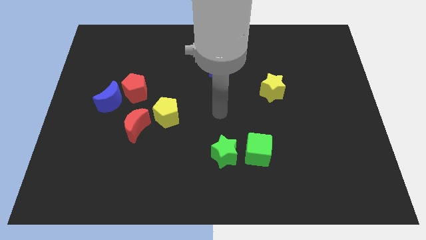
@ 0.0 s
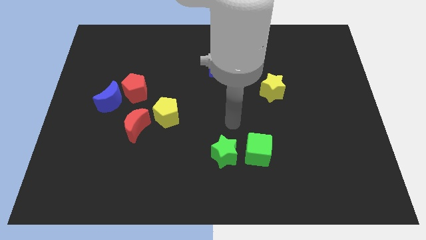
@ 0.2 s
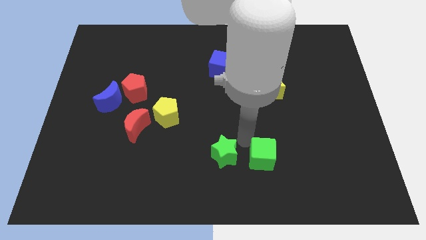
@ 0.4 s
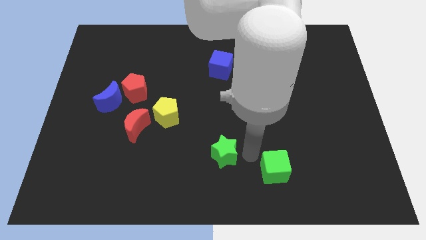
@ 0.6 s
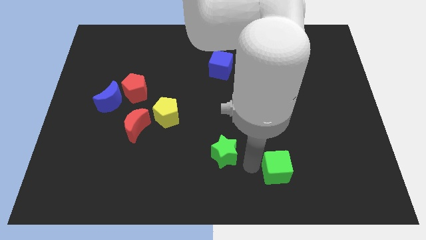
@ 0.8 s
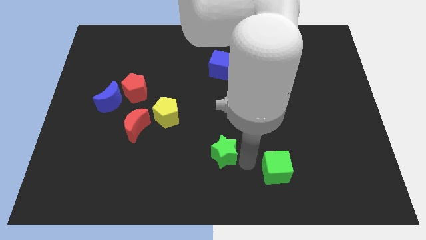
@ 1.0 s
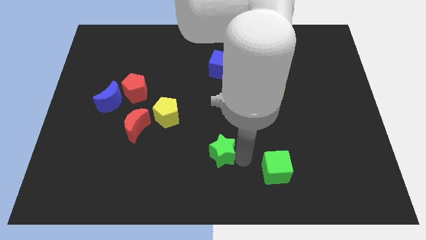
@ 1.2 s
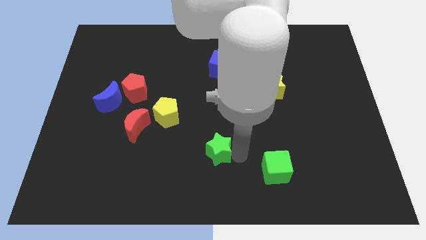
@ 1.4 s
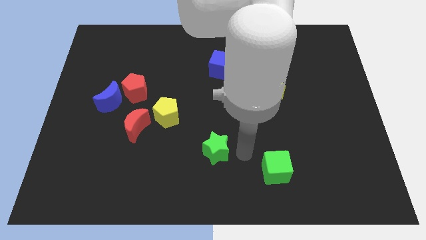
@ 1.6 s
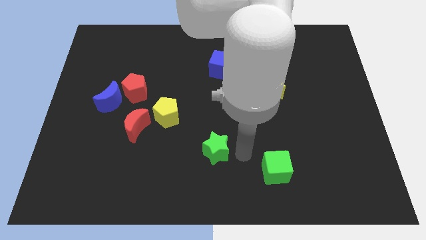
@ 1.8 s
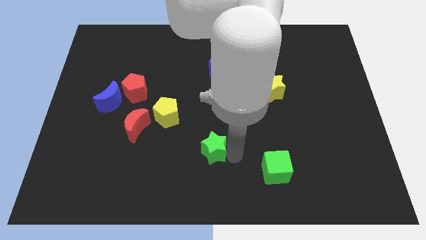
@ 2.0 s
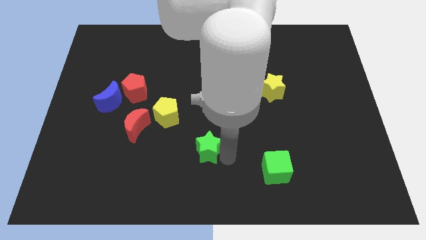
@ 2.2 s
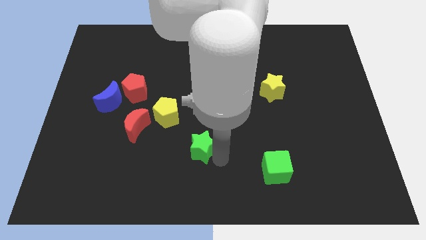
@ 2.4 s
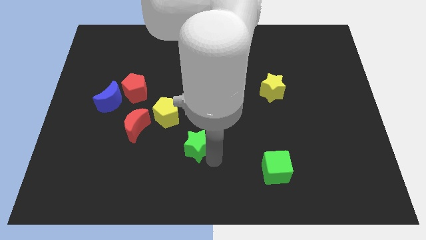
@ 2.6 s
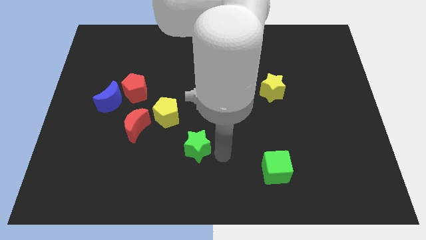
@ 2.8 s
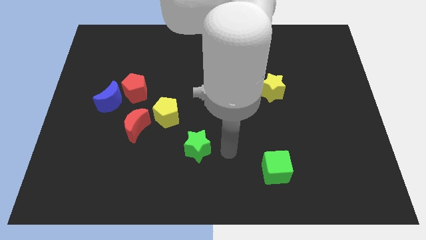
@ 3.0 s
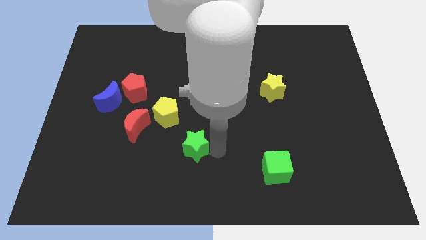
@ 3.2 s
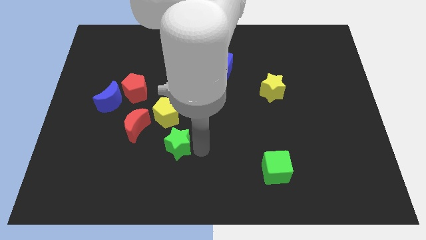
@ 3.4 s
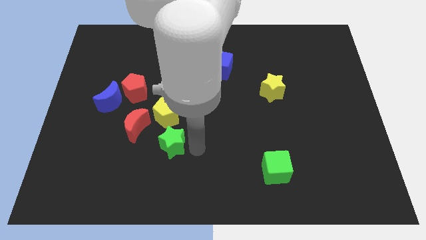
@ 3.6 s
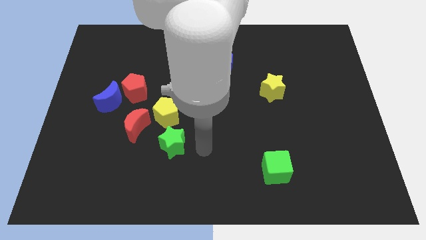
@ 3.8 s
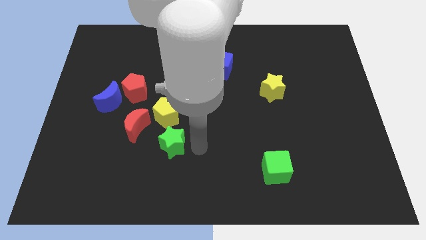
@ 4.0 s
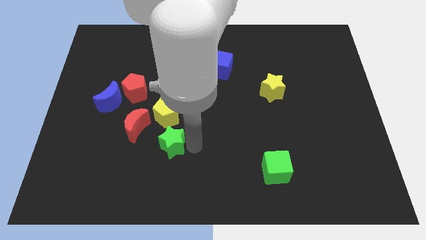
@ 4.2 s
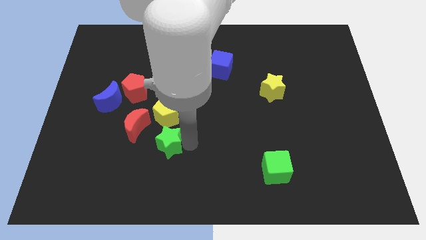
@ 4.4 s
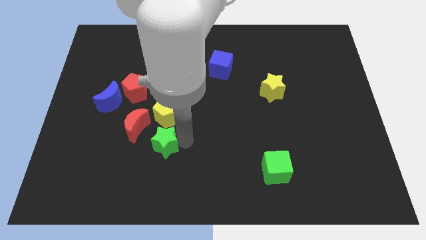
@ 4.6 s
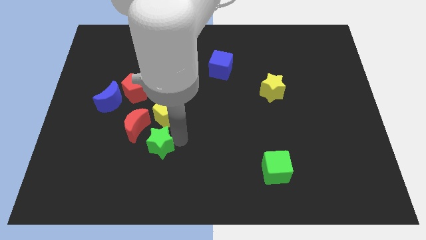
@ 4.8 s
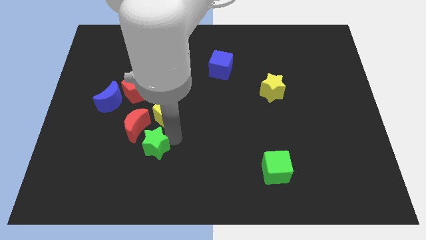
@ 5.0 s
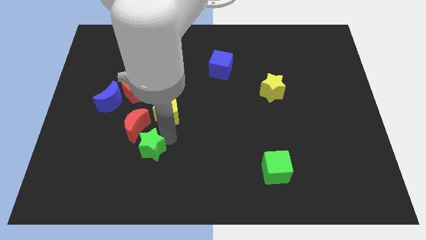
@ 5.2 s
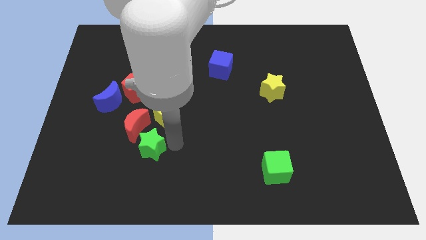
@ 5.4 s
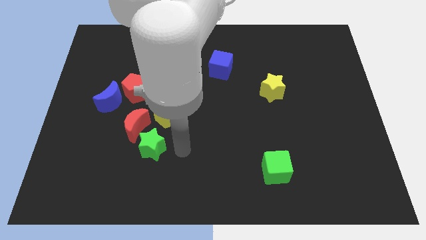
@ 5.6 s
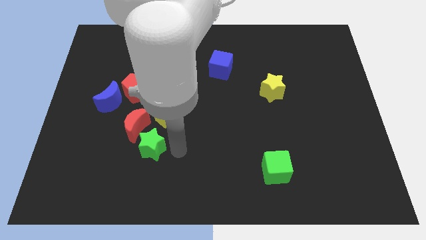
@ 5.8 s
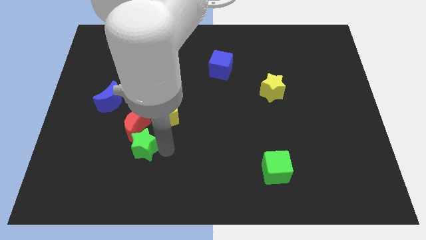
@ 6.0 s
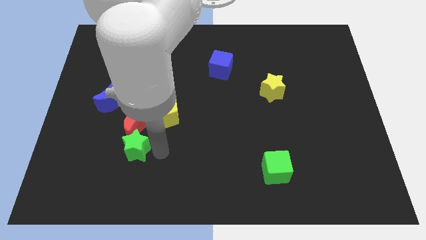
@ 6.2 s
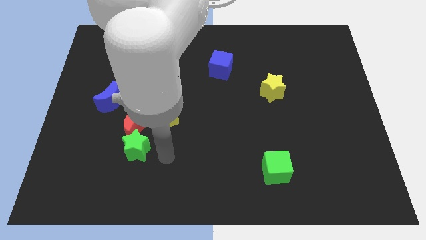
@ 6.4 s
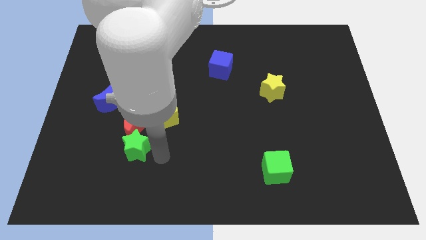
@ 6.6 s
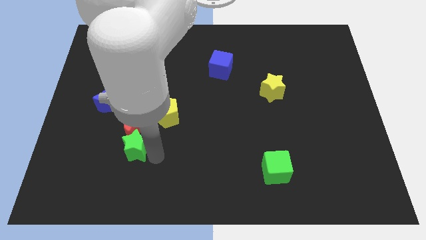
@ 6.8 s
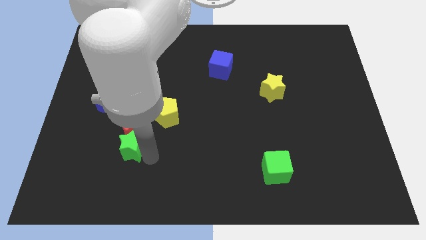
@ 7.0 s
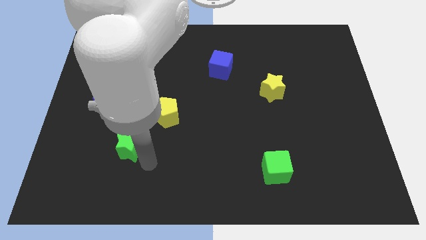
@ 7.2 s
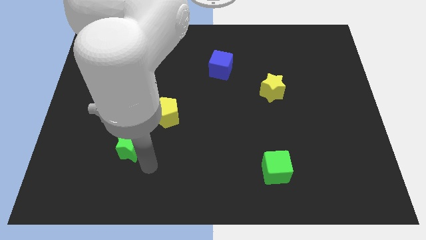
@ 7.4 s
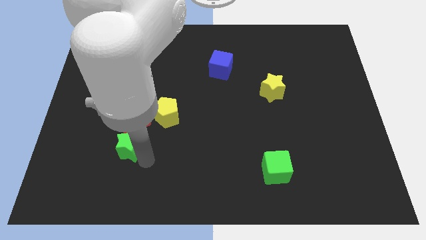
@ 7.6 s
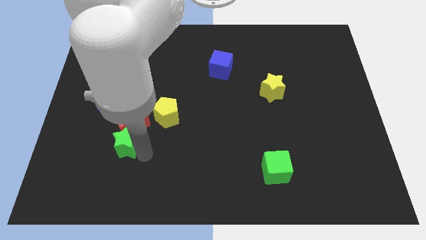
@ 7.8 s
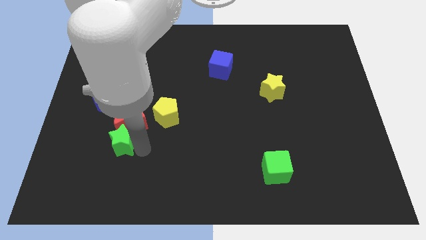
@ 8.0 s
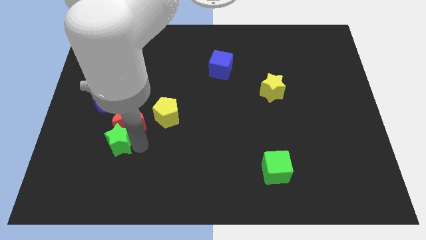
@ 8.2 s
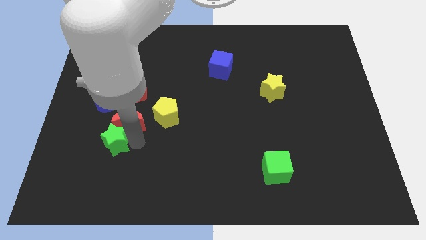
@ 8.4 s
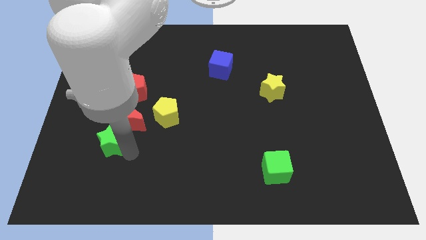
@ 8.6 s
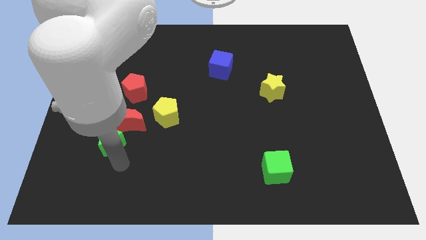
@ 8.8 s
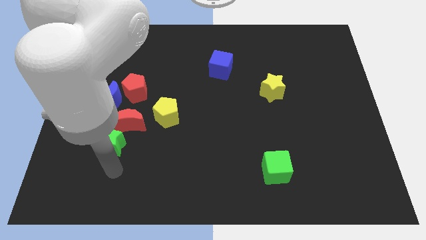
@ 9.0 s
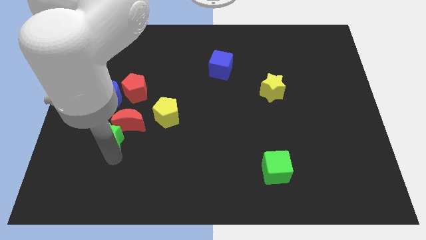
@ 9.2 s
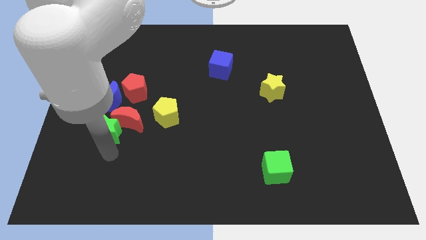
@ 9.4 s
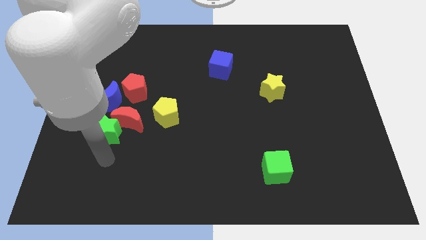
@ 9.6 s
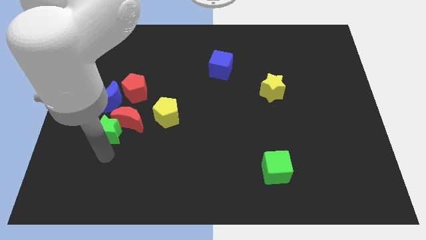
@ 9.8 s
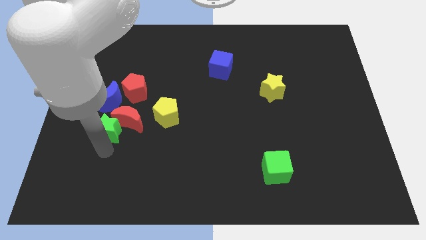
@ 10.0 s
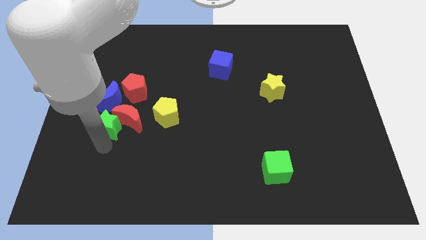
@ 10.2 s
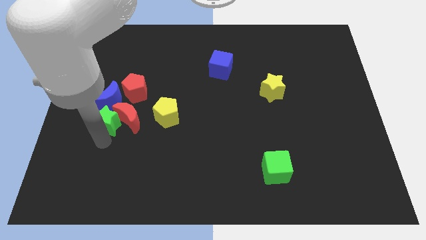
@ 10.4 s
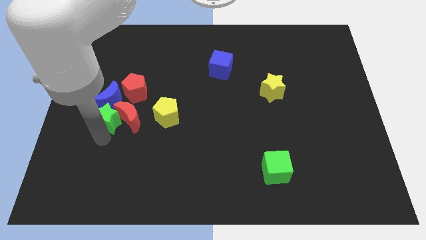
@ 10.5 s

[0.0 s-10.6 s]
push the green star close to the blue moon

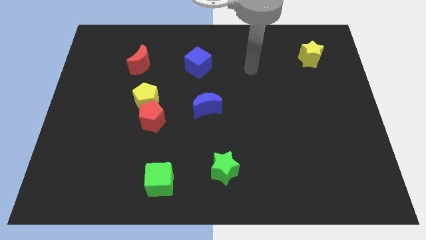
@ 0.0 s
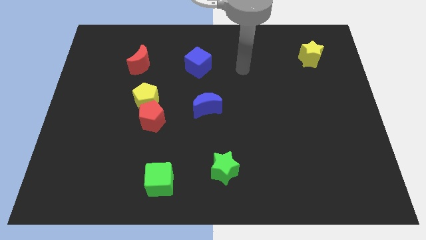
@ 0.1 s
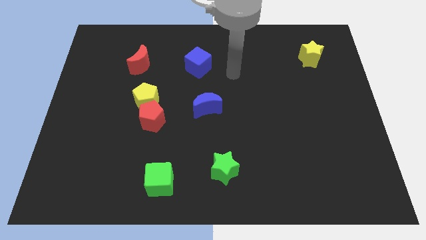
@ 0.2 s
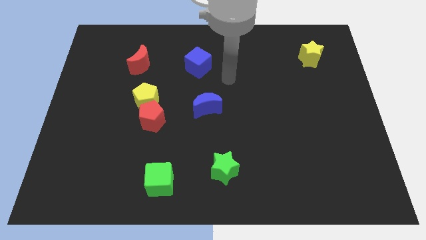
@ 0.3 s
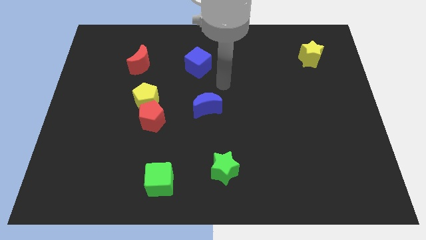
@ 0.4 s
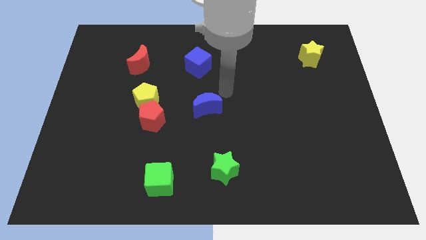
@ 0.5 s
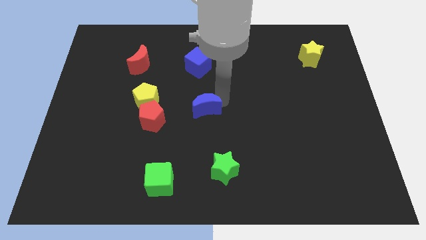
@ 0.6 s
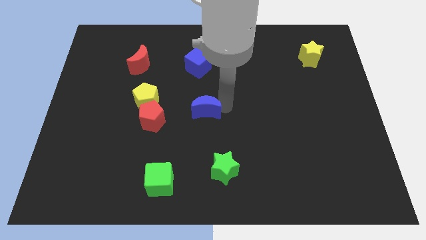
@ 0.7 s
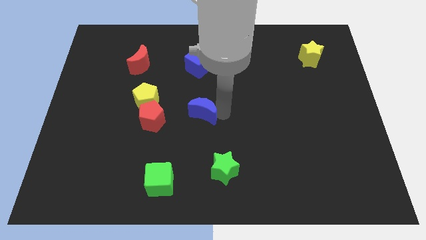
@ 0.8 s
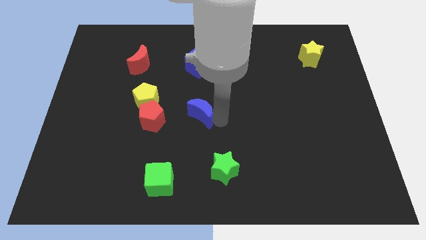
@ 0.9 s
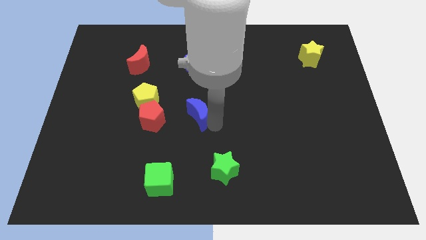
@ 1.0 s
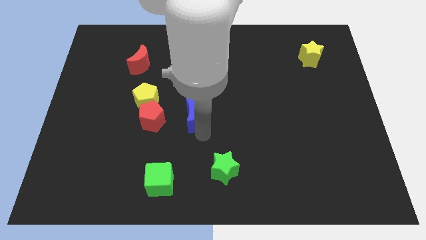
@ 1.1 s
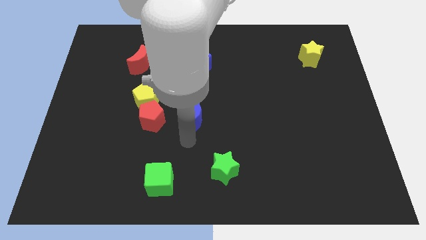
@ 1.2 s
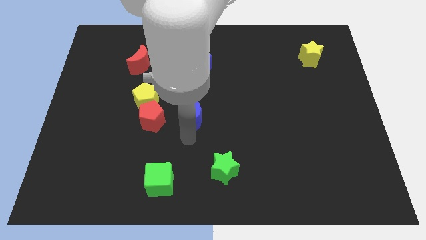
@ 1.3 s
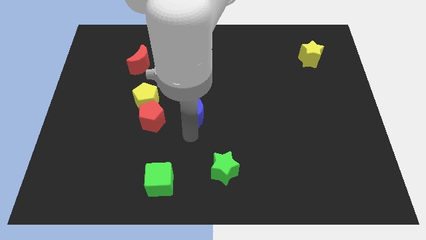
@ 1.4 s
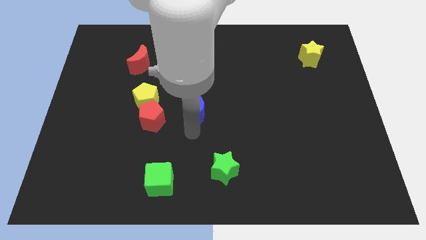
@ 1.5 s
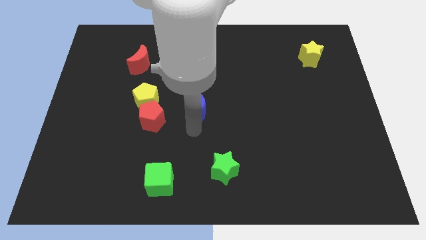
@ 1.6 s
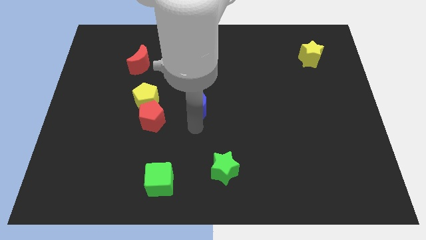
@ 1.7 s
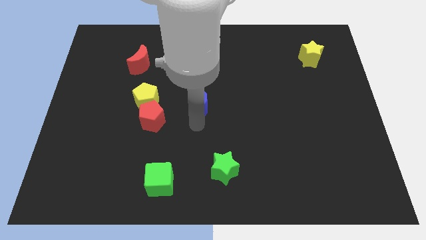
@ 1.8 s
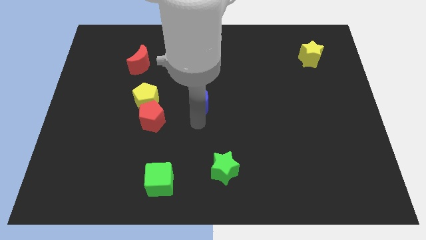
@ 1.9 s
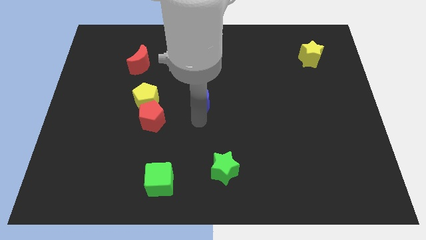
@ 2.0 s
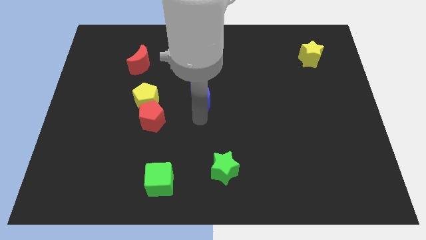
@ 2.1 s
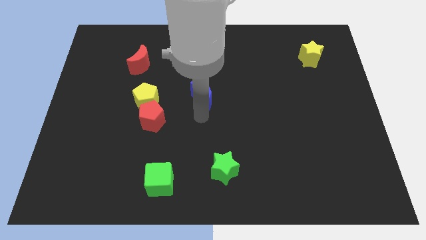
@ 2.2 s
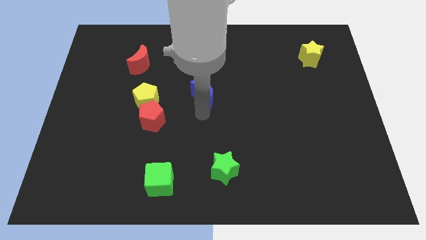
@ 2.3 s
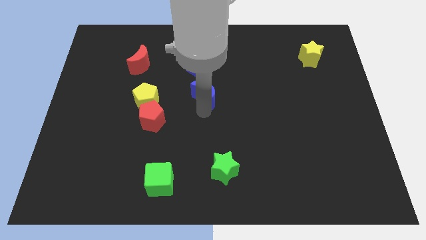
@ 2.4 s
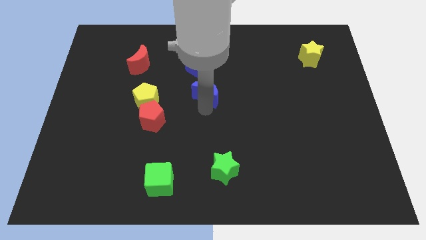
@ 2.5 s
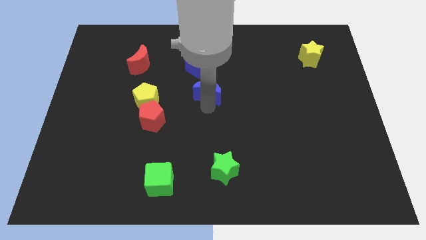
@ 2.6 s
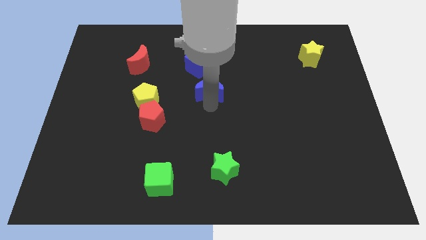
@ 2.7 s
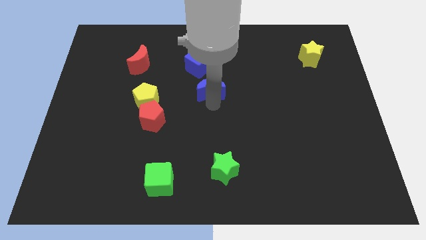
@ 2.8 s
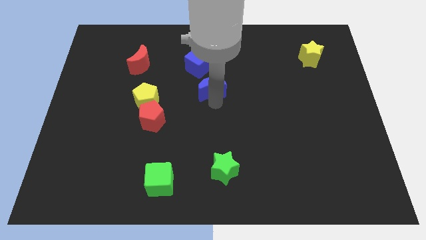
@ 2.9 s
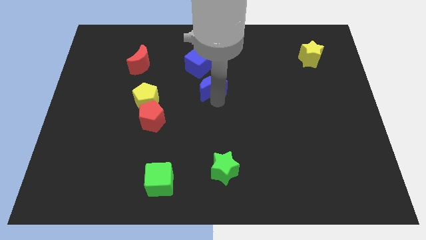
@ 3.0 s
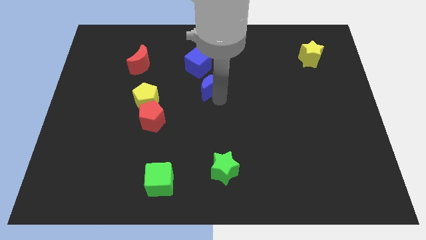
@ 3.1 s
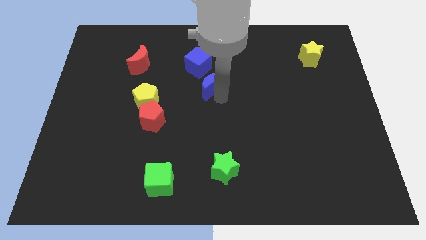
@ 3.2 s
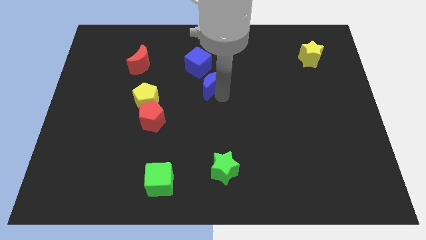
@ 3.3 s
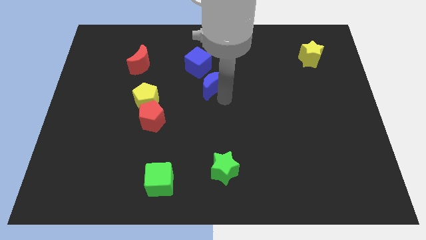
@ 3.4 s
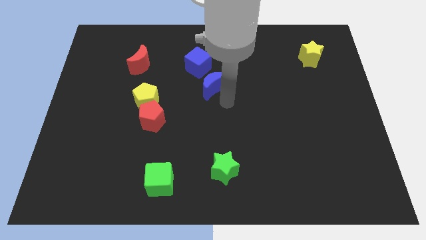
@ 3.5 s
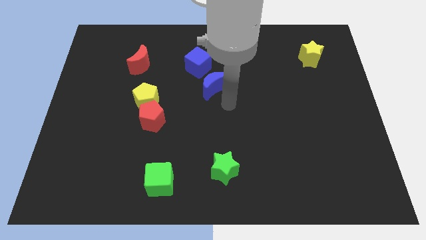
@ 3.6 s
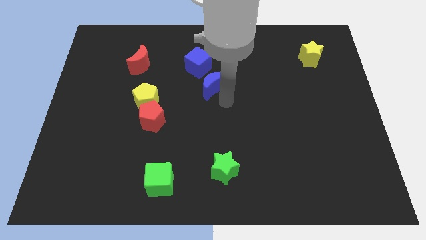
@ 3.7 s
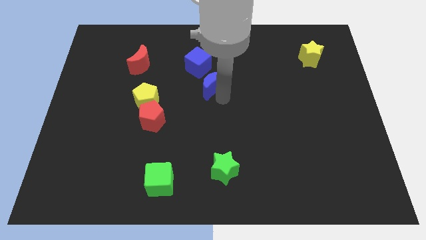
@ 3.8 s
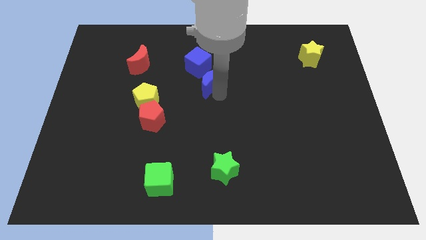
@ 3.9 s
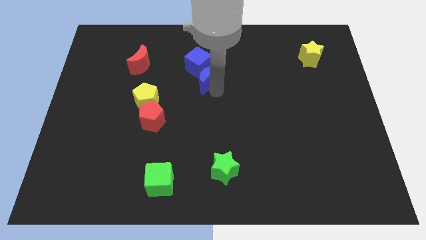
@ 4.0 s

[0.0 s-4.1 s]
push the blue moon towards the blue cube
